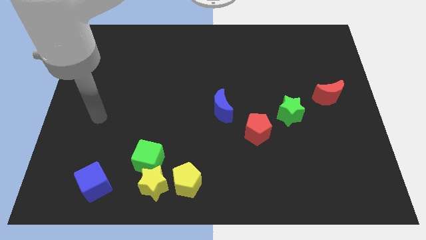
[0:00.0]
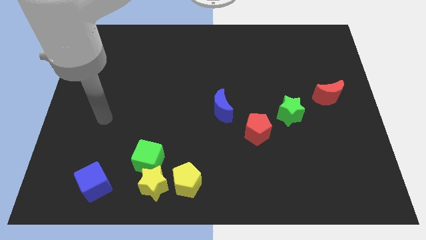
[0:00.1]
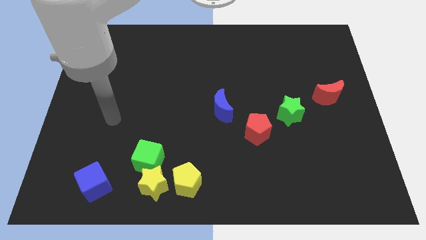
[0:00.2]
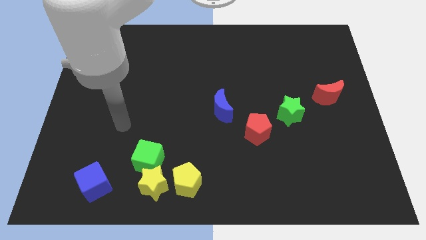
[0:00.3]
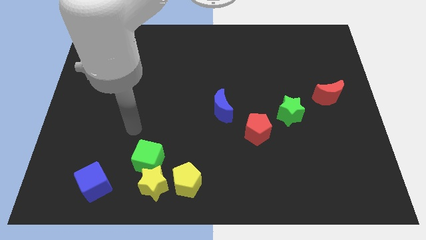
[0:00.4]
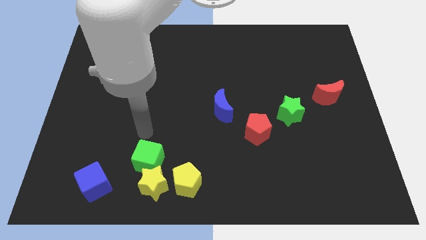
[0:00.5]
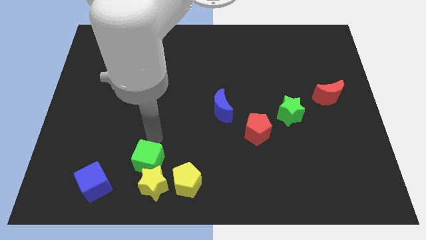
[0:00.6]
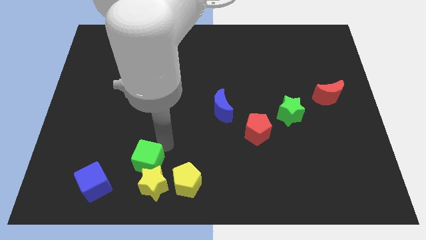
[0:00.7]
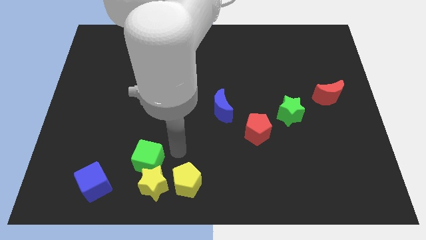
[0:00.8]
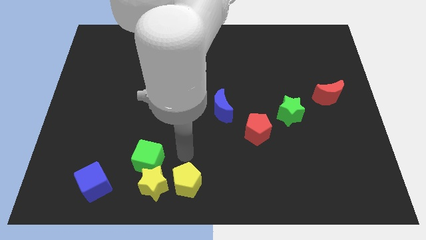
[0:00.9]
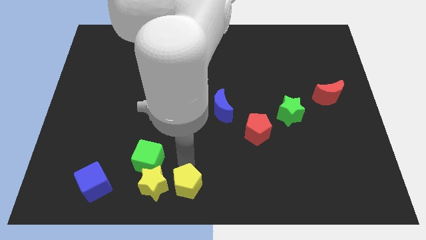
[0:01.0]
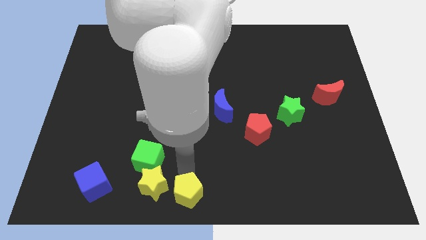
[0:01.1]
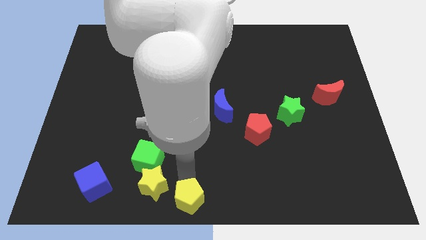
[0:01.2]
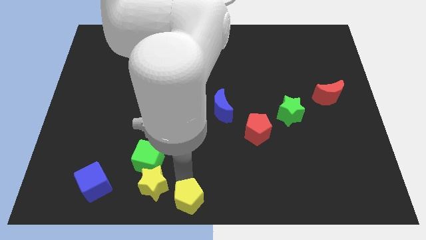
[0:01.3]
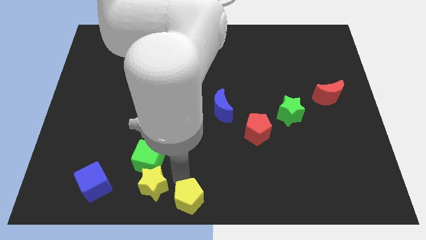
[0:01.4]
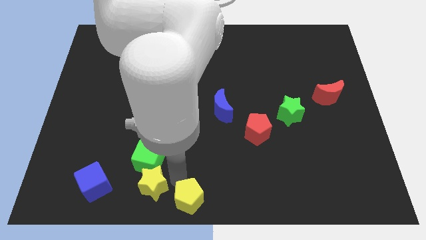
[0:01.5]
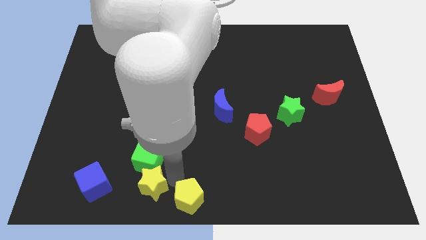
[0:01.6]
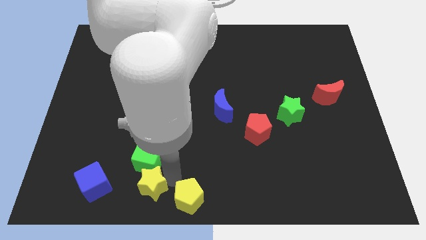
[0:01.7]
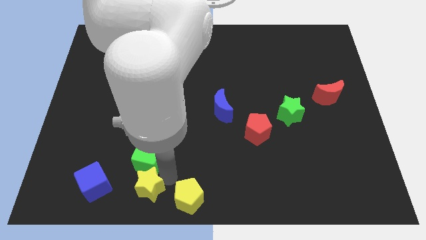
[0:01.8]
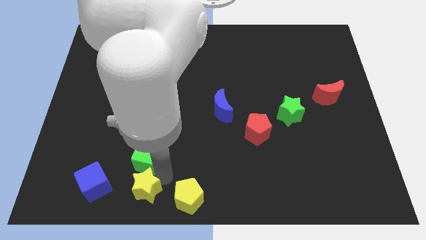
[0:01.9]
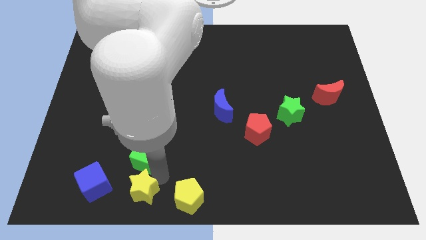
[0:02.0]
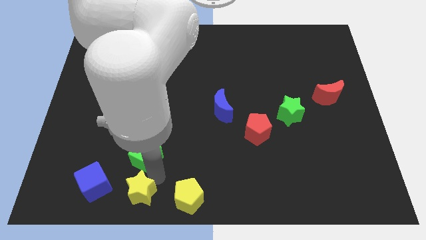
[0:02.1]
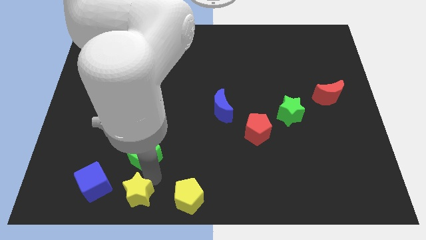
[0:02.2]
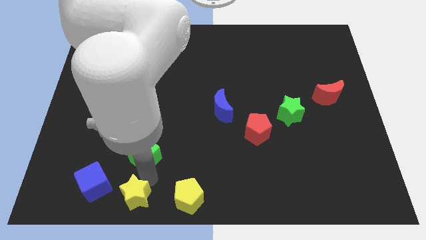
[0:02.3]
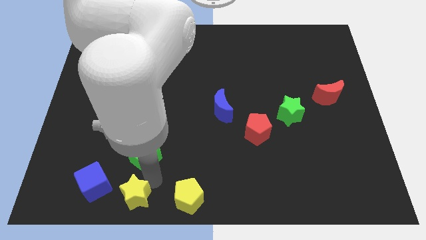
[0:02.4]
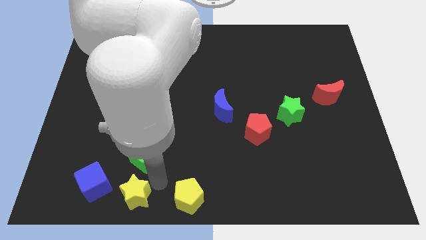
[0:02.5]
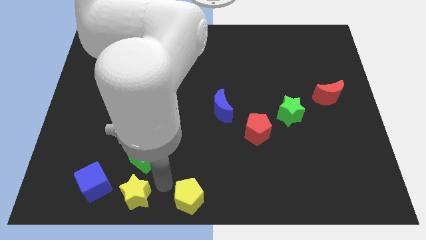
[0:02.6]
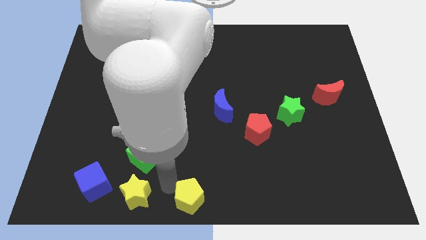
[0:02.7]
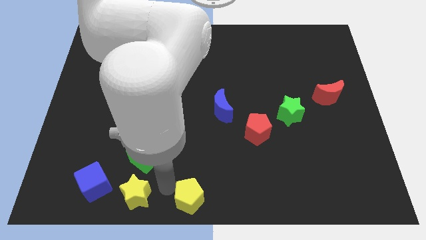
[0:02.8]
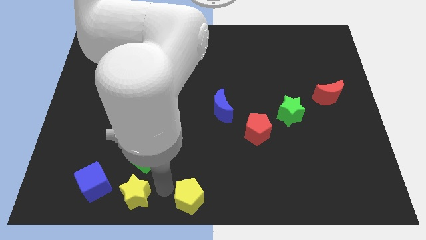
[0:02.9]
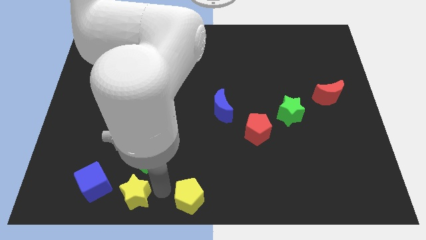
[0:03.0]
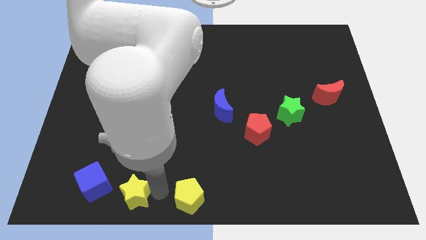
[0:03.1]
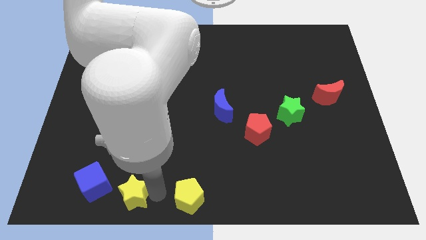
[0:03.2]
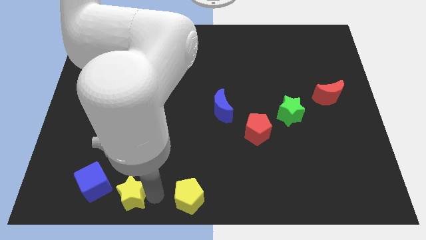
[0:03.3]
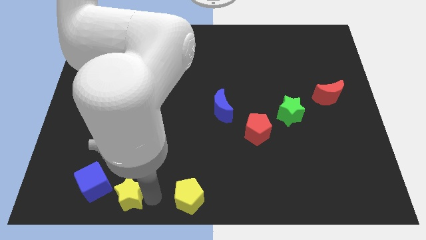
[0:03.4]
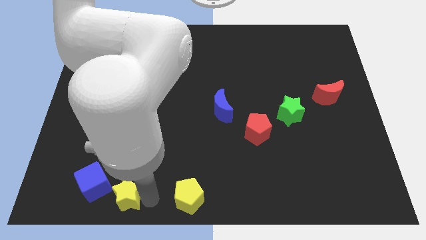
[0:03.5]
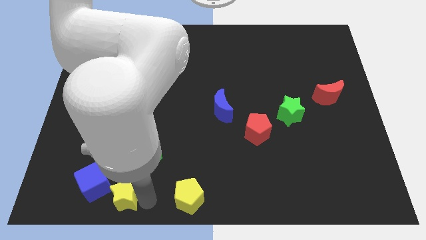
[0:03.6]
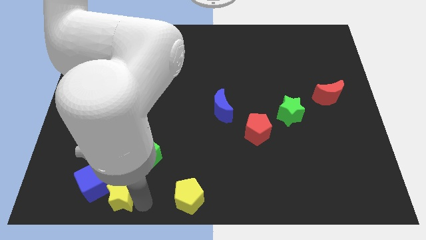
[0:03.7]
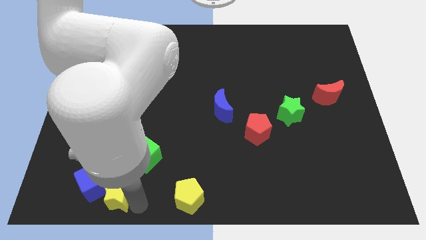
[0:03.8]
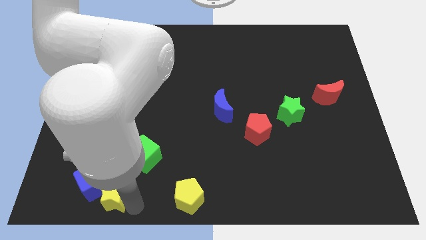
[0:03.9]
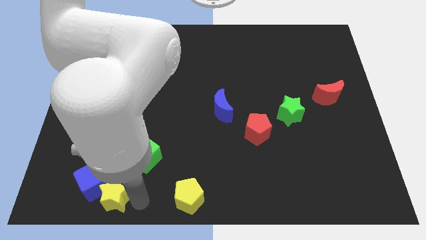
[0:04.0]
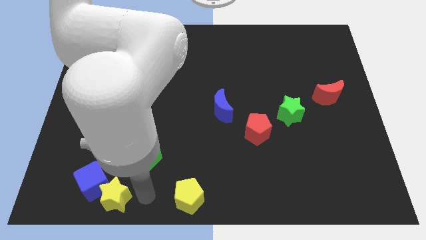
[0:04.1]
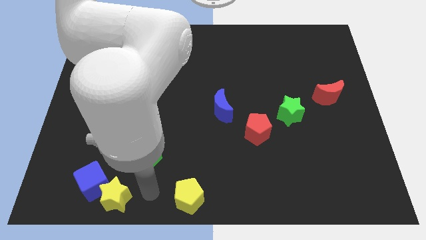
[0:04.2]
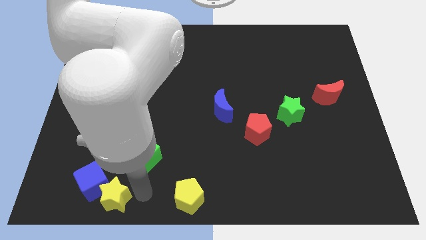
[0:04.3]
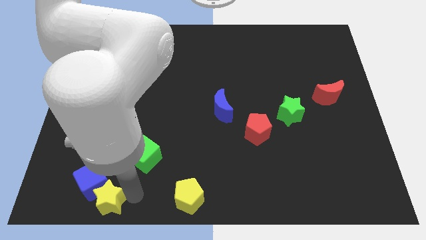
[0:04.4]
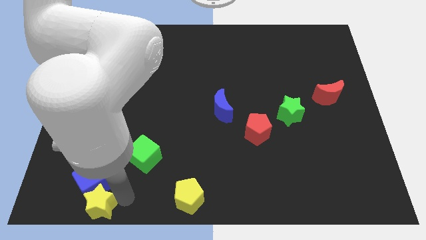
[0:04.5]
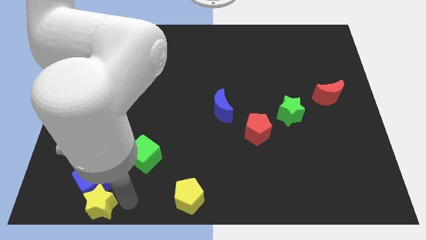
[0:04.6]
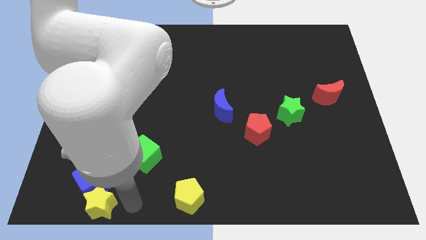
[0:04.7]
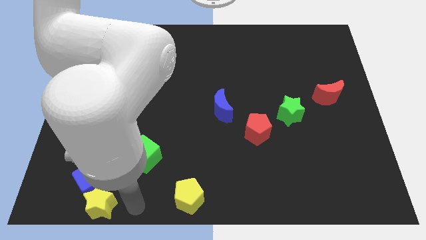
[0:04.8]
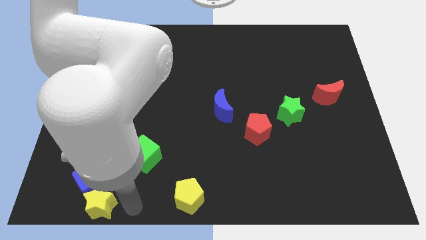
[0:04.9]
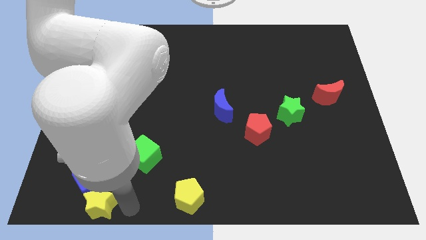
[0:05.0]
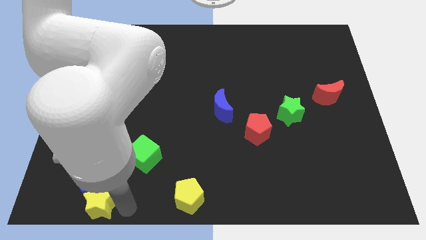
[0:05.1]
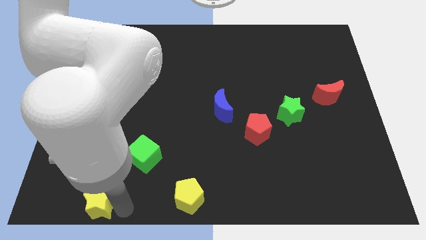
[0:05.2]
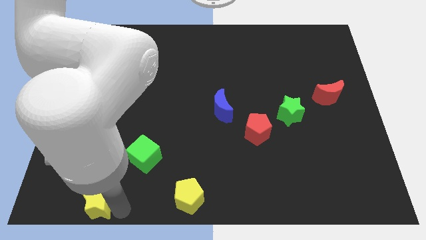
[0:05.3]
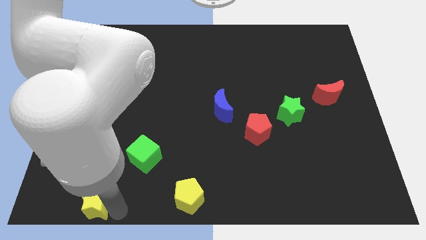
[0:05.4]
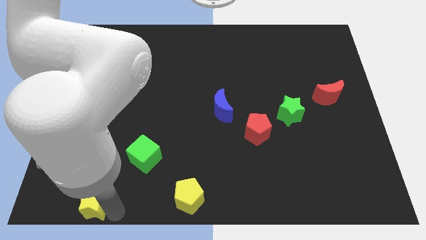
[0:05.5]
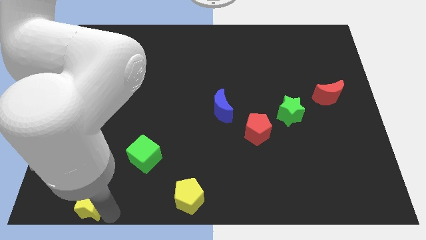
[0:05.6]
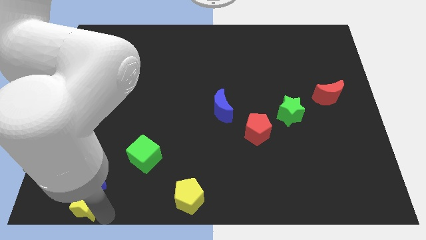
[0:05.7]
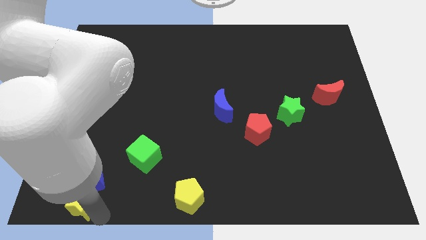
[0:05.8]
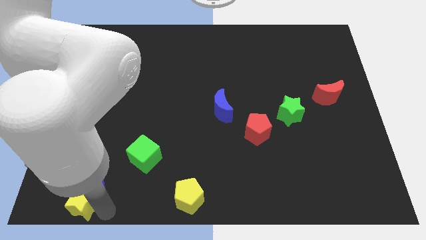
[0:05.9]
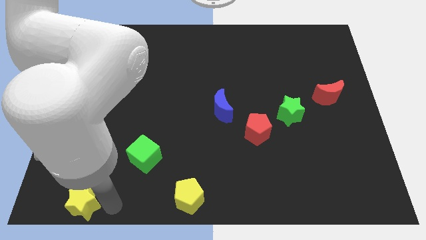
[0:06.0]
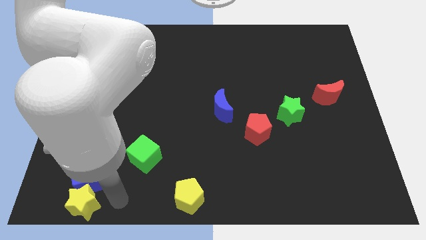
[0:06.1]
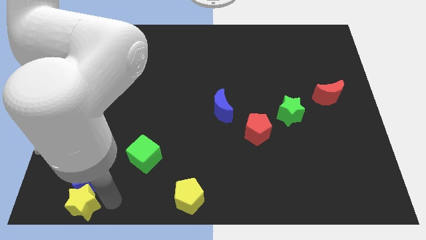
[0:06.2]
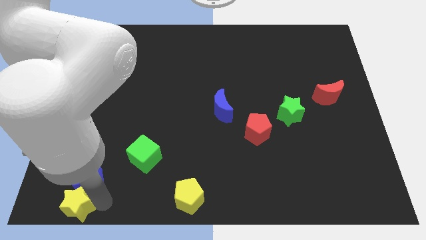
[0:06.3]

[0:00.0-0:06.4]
move the yellow star to the lower left corner
